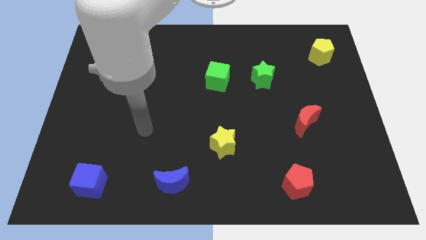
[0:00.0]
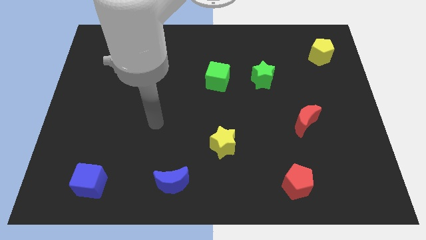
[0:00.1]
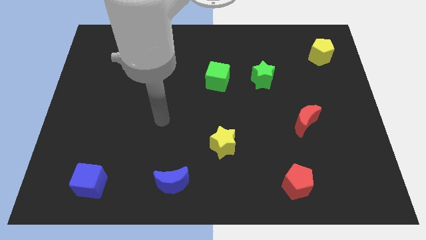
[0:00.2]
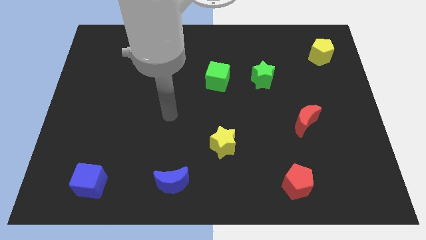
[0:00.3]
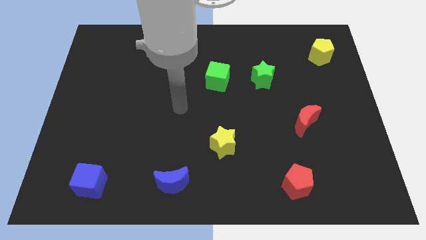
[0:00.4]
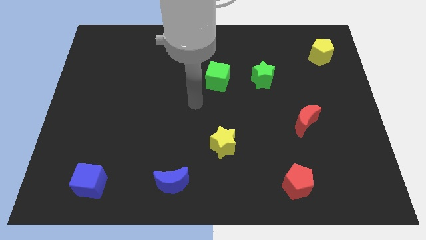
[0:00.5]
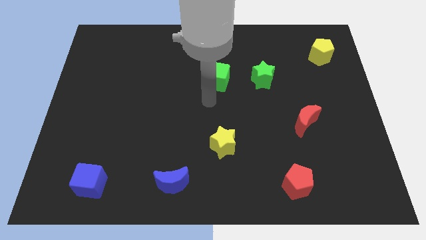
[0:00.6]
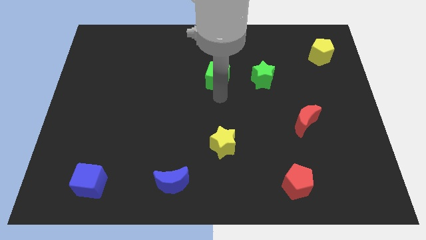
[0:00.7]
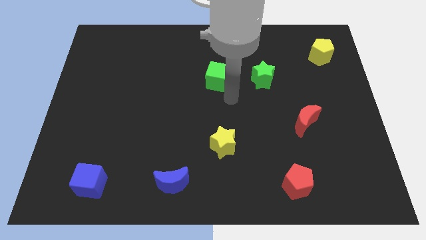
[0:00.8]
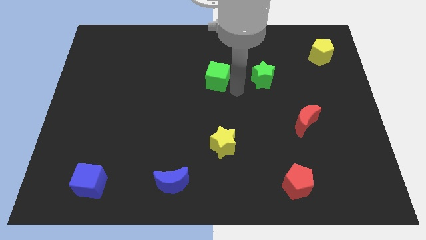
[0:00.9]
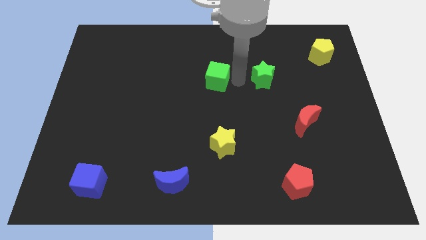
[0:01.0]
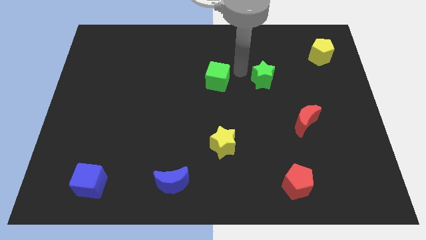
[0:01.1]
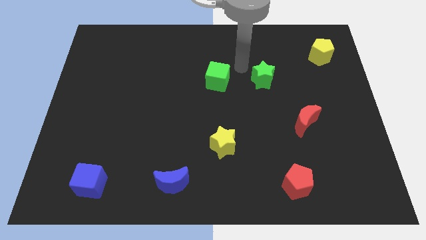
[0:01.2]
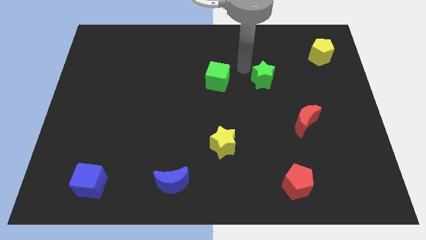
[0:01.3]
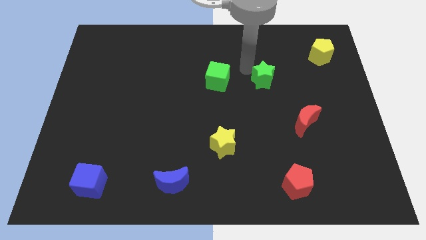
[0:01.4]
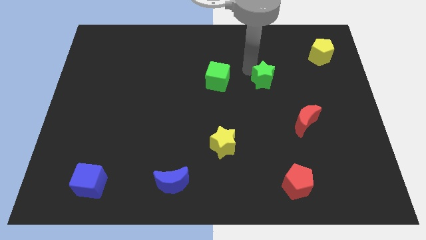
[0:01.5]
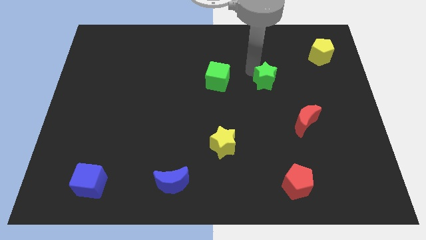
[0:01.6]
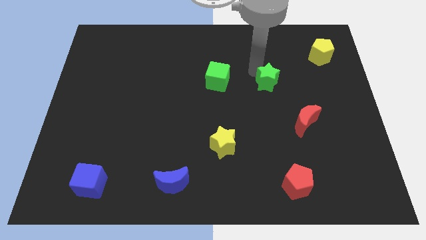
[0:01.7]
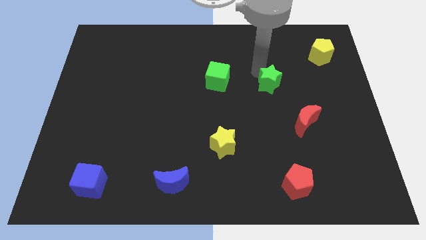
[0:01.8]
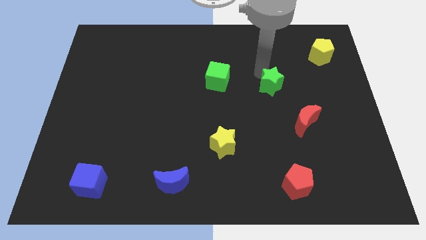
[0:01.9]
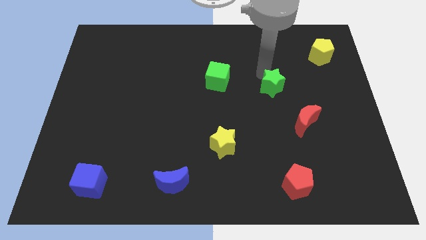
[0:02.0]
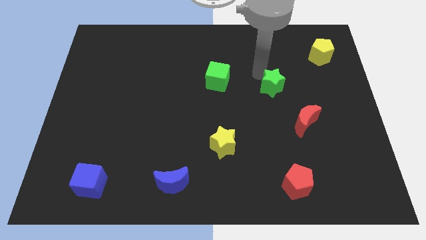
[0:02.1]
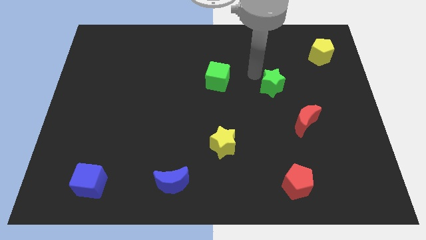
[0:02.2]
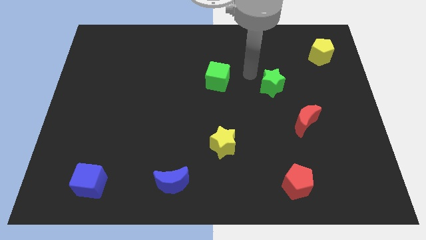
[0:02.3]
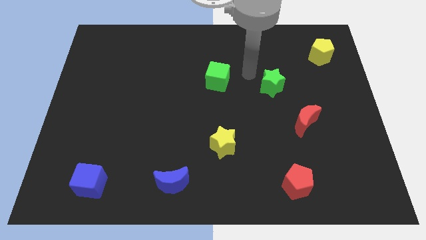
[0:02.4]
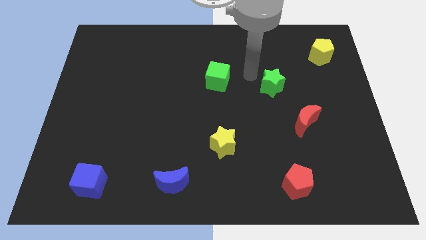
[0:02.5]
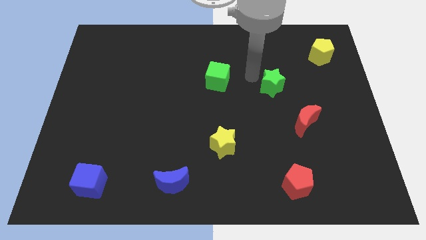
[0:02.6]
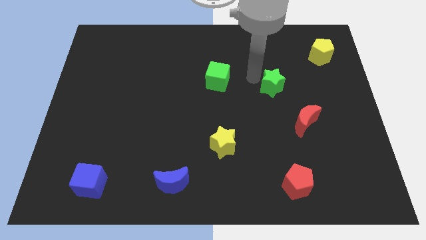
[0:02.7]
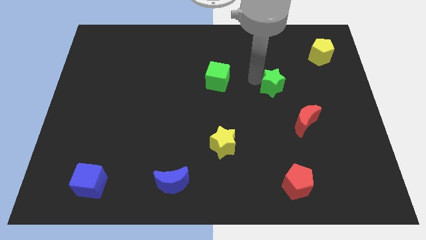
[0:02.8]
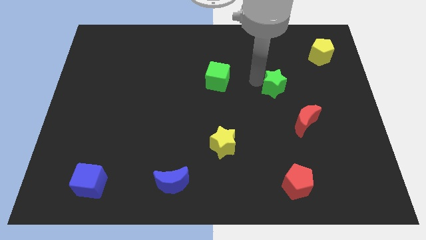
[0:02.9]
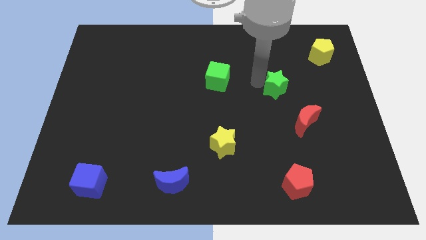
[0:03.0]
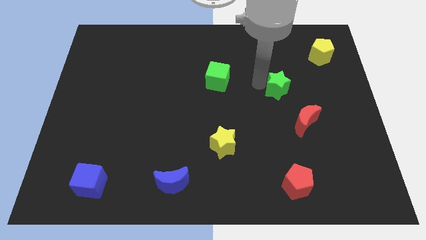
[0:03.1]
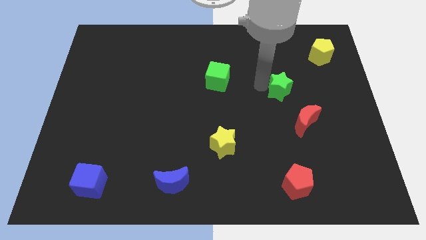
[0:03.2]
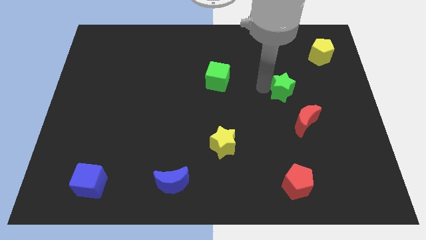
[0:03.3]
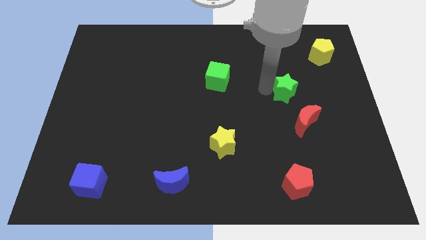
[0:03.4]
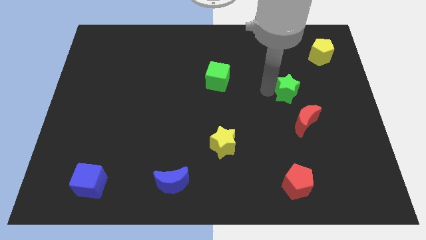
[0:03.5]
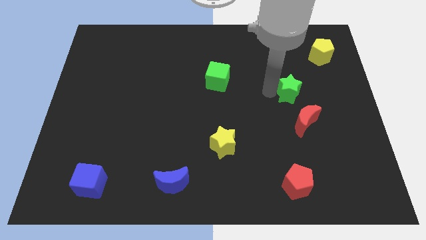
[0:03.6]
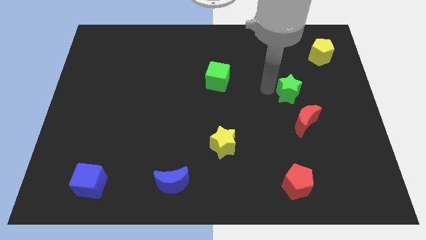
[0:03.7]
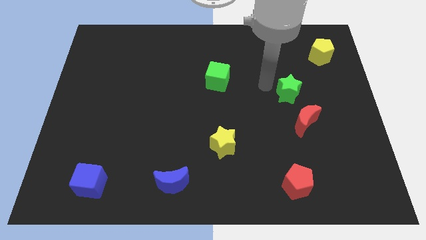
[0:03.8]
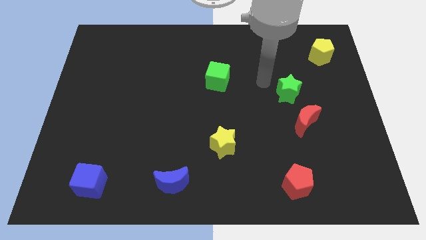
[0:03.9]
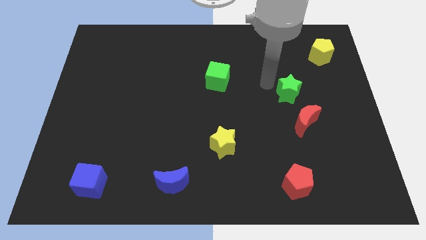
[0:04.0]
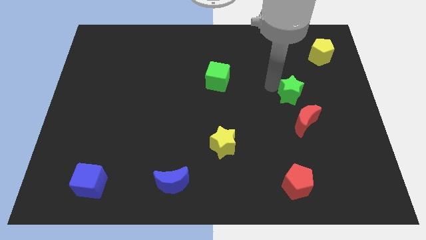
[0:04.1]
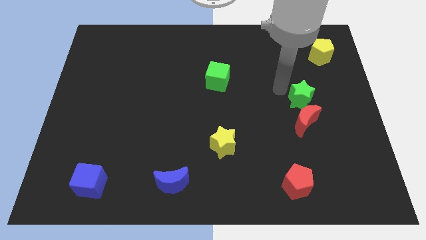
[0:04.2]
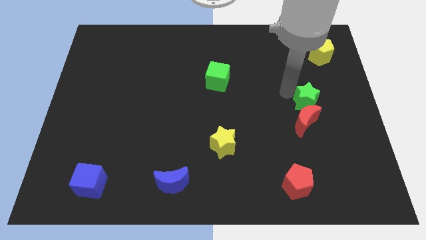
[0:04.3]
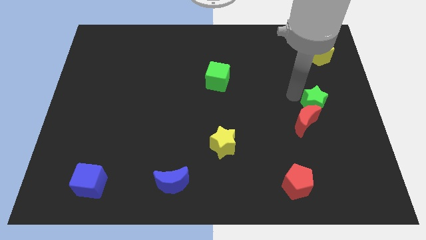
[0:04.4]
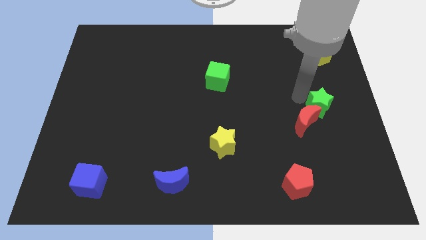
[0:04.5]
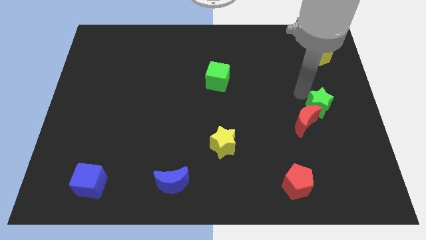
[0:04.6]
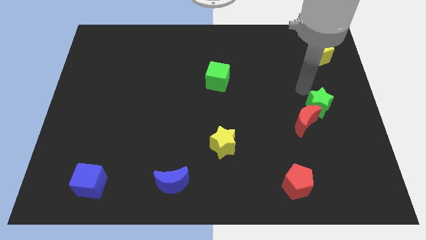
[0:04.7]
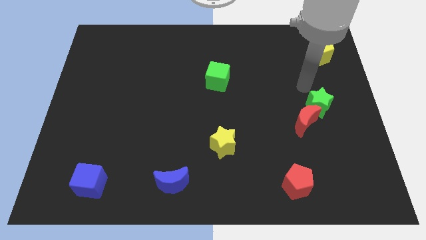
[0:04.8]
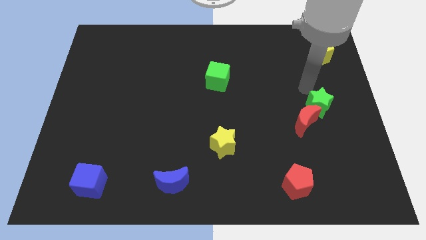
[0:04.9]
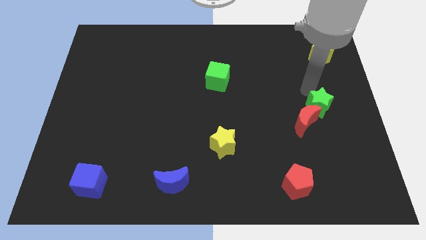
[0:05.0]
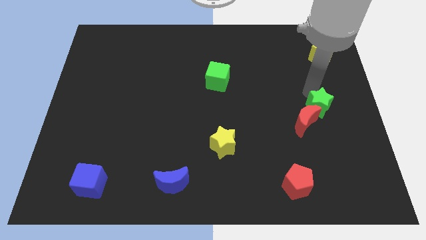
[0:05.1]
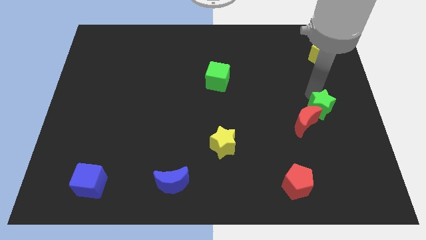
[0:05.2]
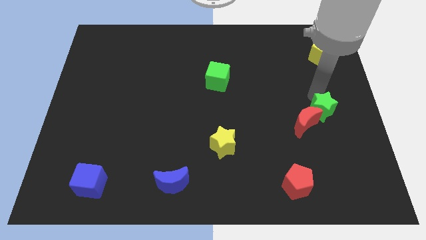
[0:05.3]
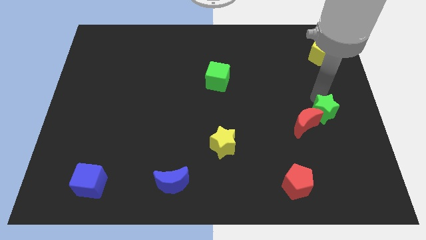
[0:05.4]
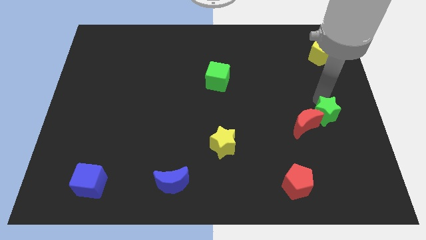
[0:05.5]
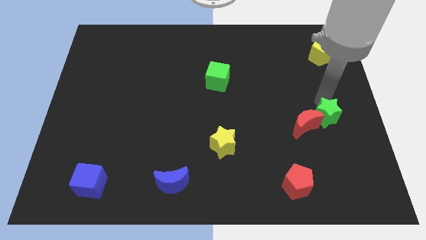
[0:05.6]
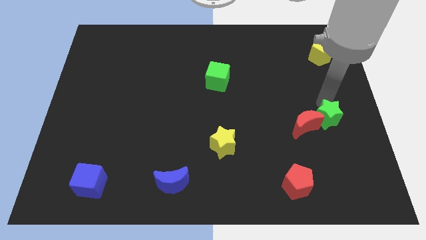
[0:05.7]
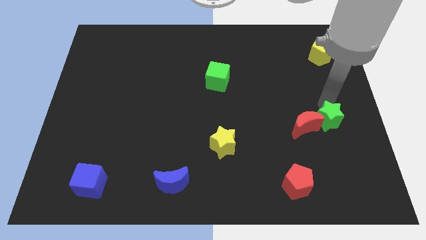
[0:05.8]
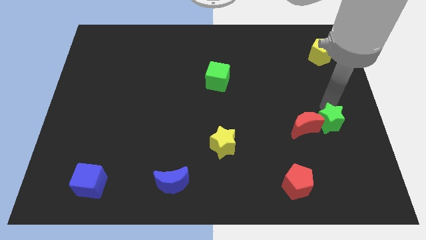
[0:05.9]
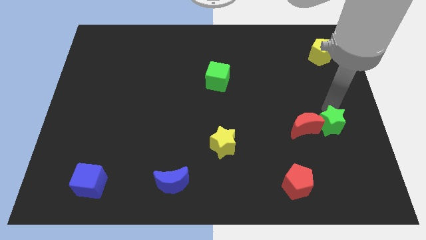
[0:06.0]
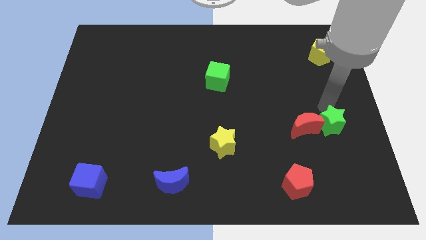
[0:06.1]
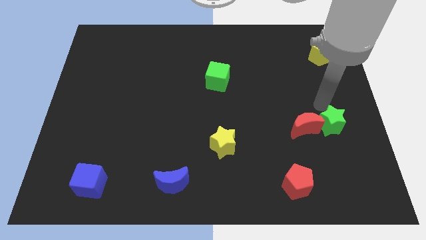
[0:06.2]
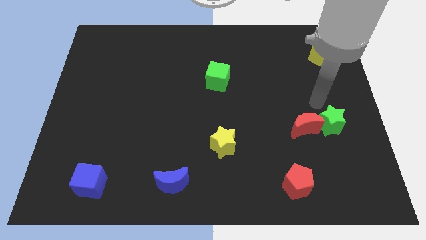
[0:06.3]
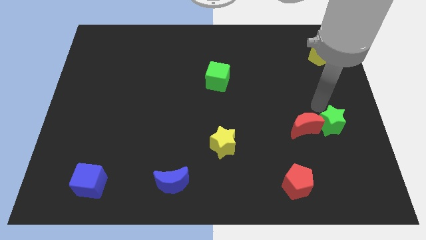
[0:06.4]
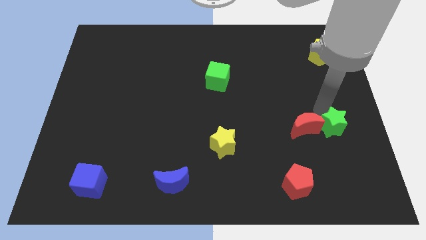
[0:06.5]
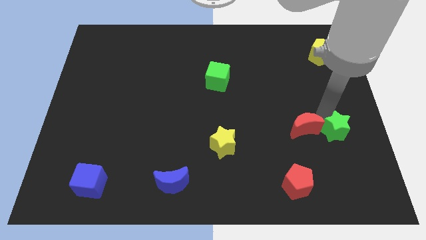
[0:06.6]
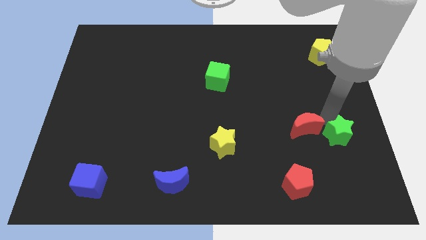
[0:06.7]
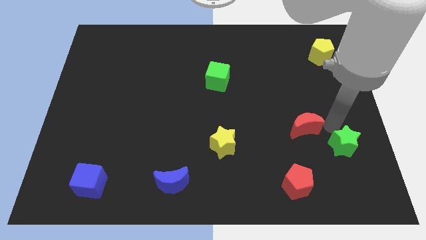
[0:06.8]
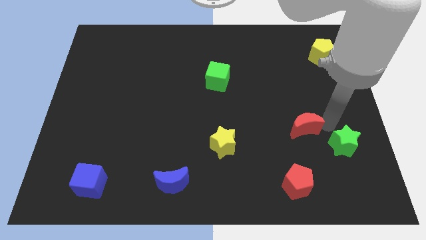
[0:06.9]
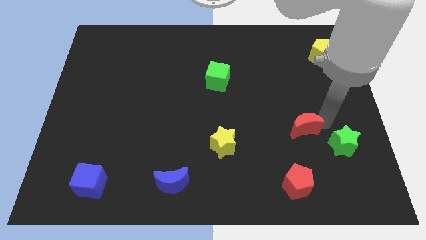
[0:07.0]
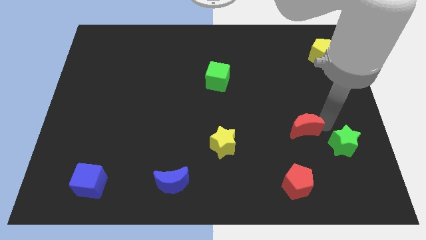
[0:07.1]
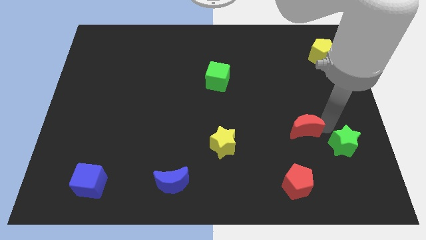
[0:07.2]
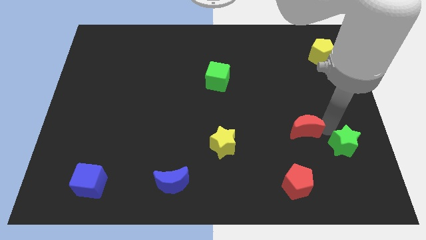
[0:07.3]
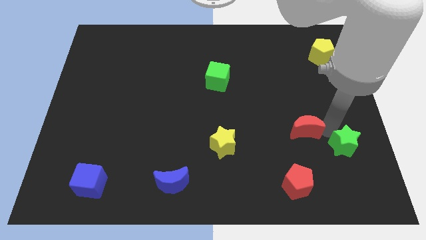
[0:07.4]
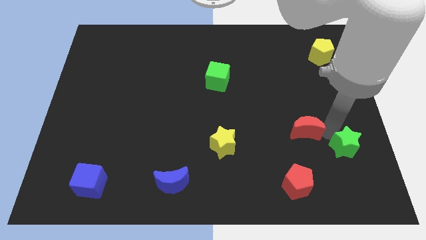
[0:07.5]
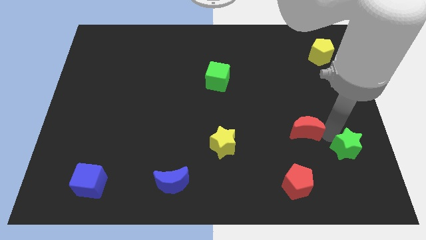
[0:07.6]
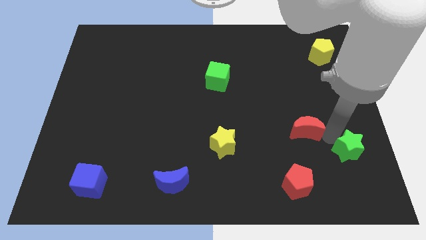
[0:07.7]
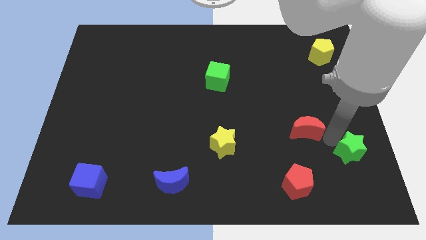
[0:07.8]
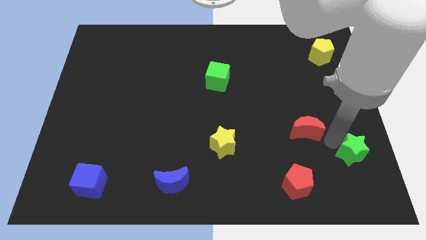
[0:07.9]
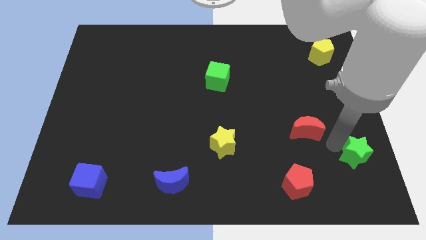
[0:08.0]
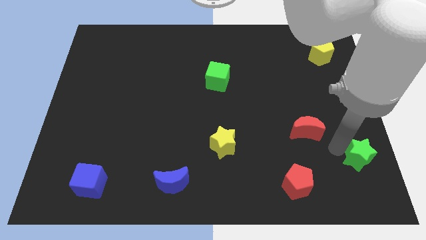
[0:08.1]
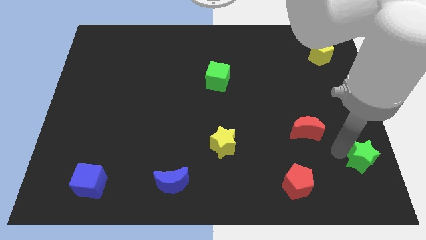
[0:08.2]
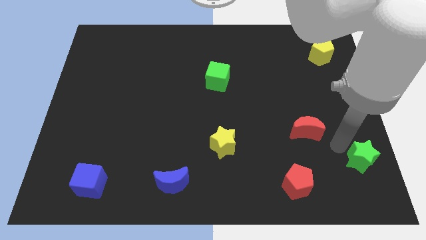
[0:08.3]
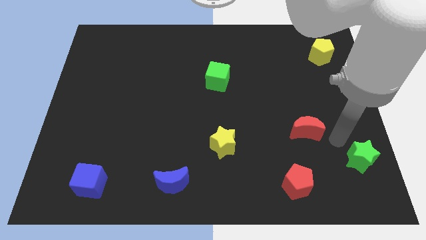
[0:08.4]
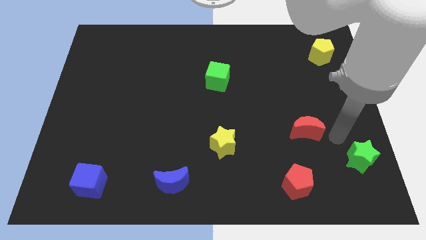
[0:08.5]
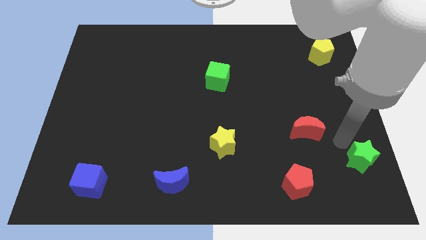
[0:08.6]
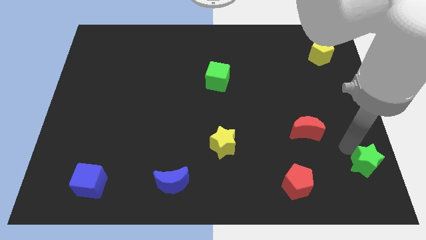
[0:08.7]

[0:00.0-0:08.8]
push the green star to the lower right corner
